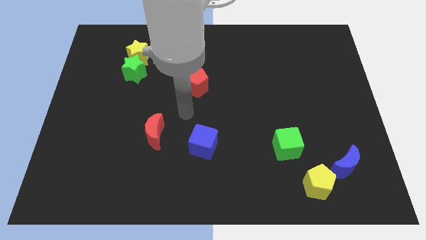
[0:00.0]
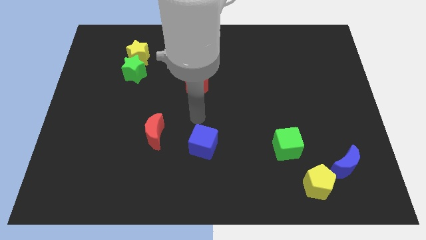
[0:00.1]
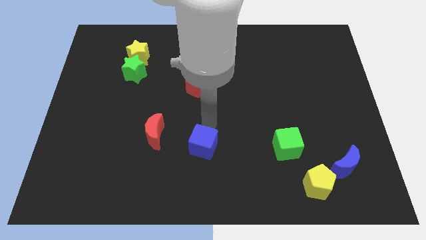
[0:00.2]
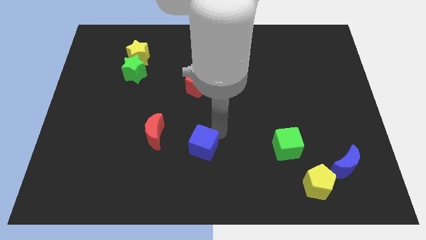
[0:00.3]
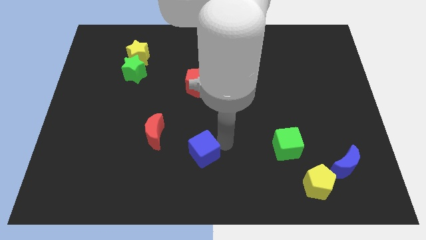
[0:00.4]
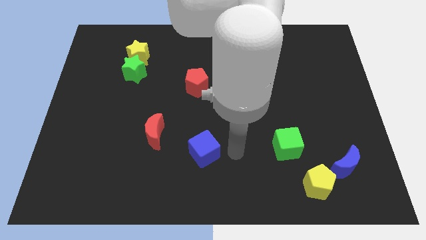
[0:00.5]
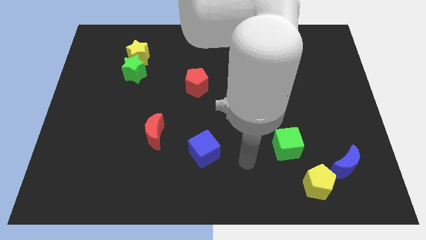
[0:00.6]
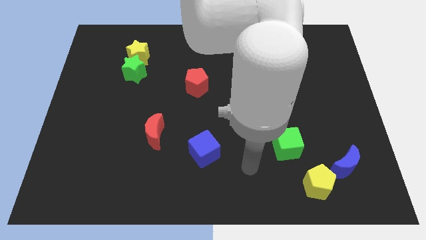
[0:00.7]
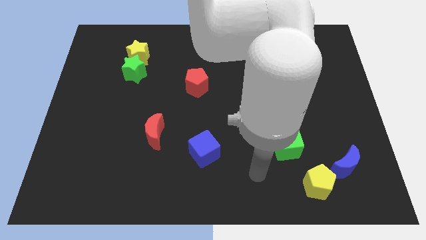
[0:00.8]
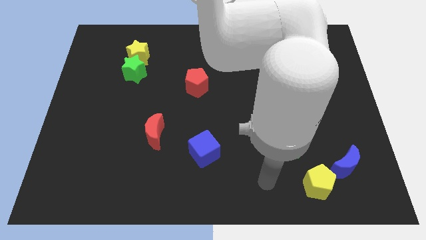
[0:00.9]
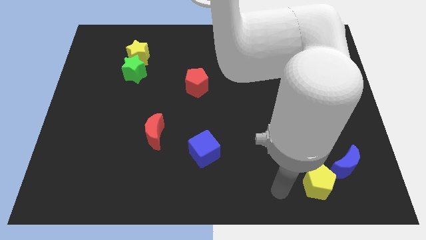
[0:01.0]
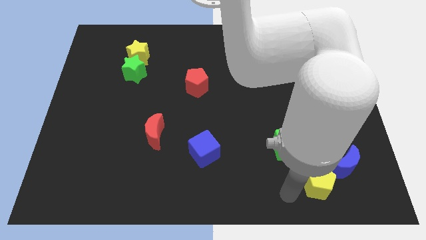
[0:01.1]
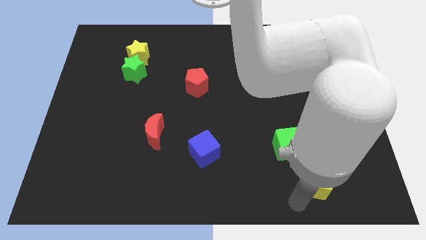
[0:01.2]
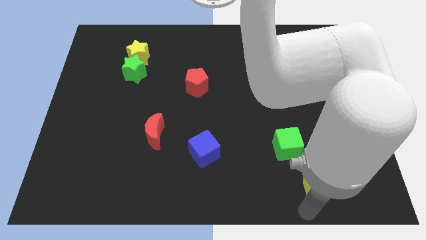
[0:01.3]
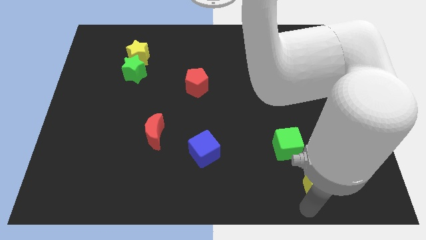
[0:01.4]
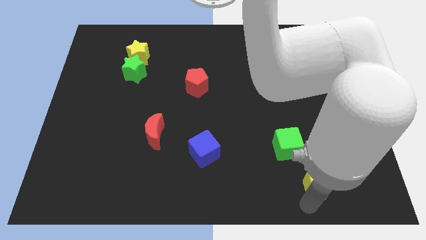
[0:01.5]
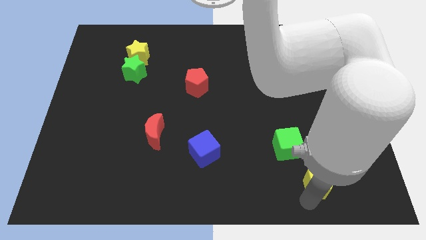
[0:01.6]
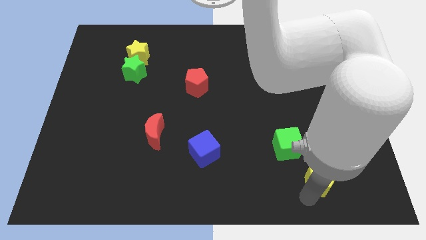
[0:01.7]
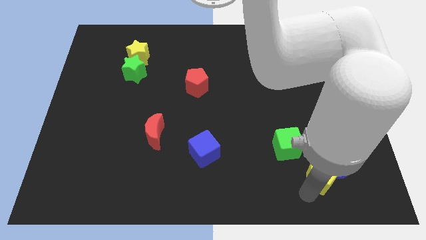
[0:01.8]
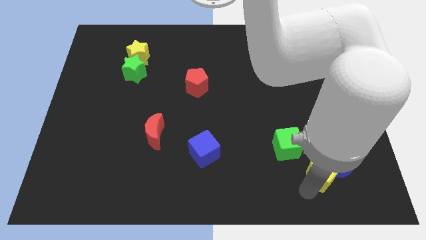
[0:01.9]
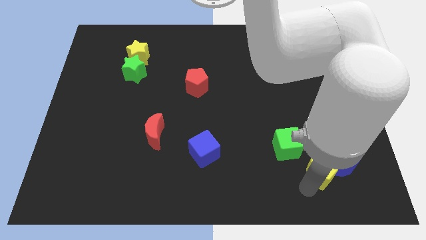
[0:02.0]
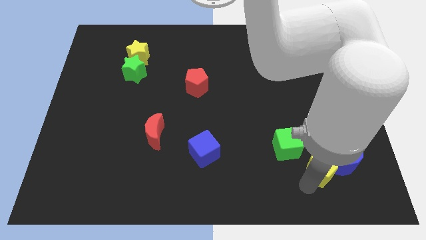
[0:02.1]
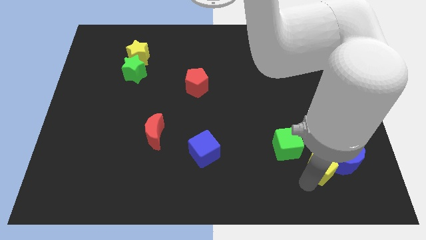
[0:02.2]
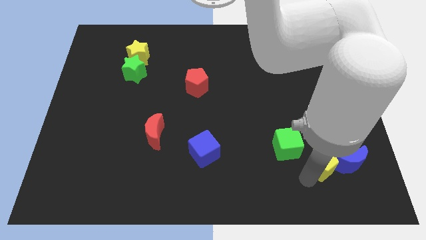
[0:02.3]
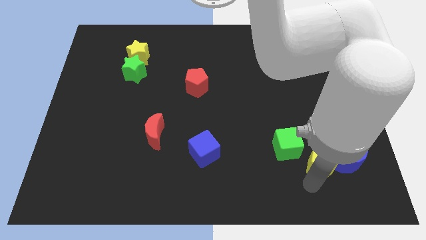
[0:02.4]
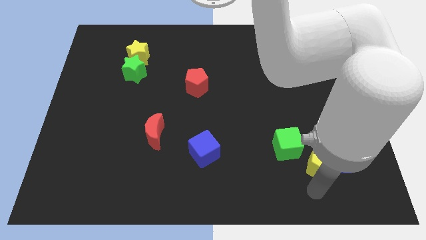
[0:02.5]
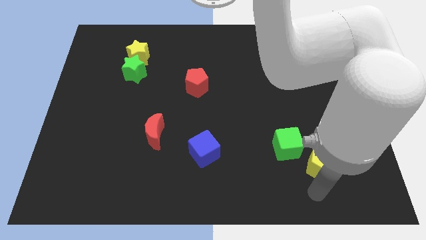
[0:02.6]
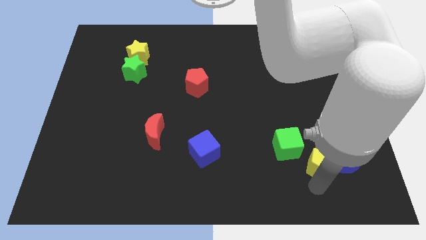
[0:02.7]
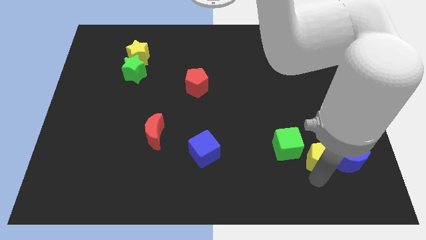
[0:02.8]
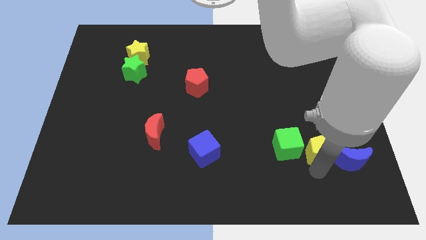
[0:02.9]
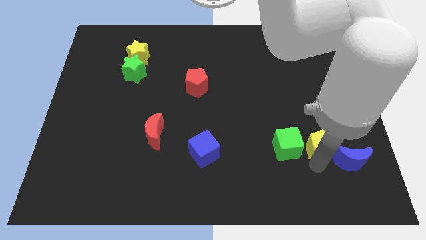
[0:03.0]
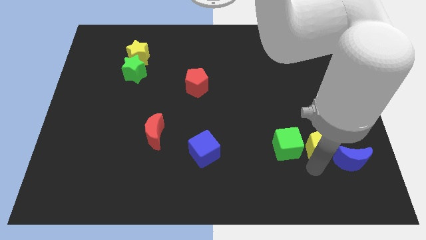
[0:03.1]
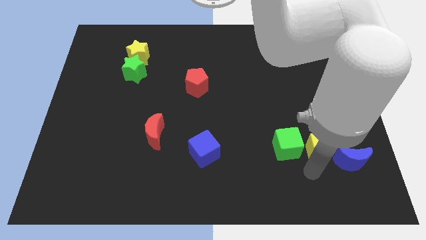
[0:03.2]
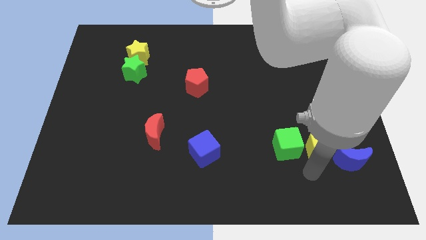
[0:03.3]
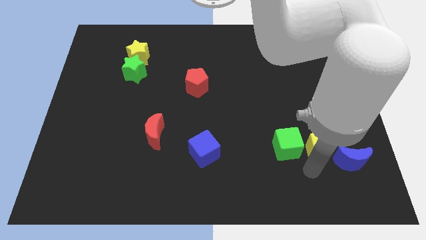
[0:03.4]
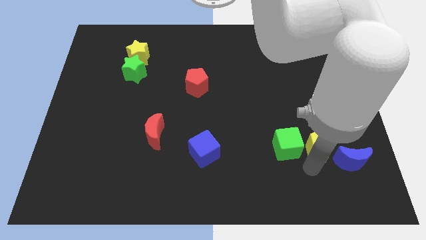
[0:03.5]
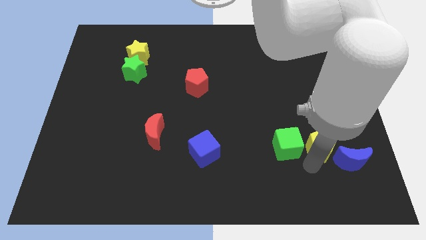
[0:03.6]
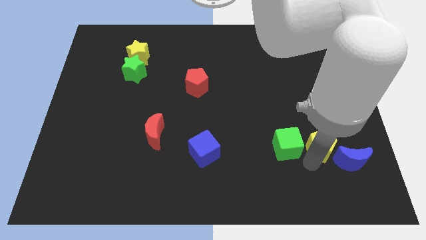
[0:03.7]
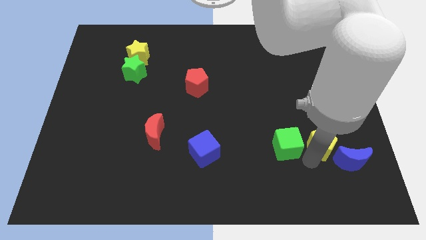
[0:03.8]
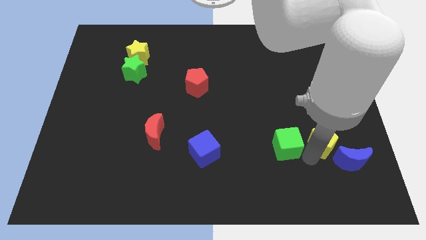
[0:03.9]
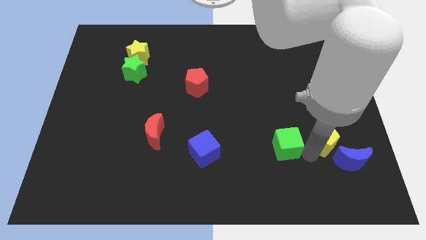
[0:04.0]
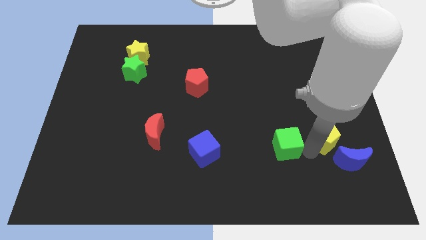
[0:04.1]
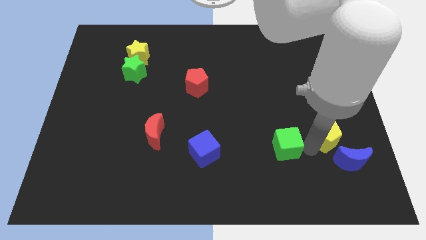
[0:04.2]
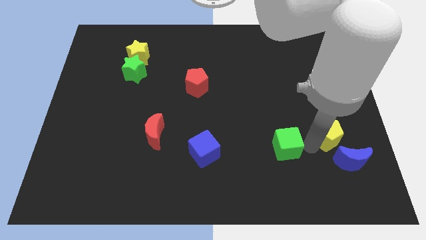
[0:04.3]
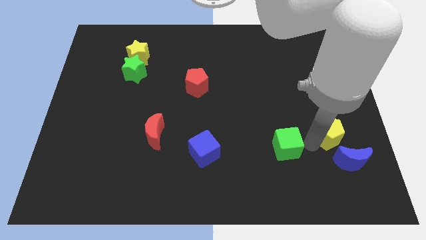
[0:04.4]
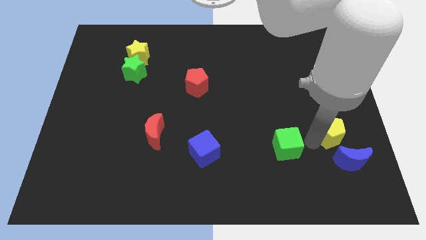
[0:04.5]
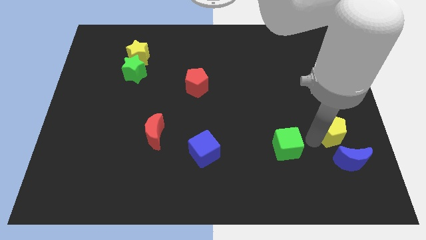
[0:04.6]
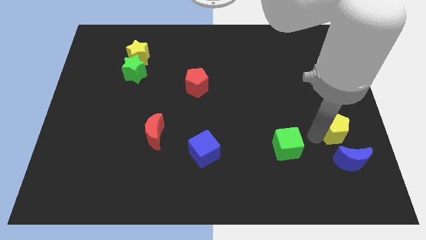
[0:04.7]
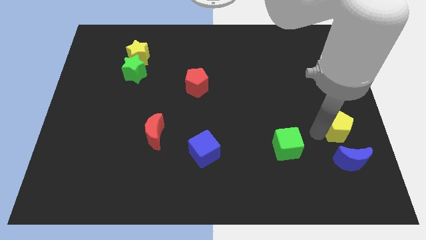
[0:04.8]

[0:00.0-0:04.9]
push the yellow pentagon to the right side of the board

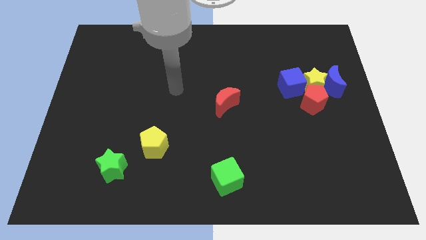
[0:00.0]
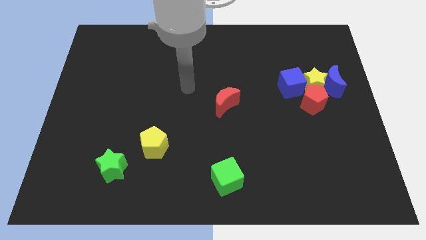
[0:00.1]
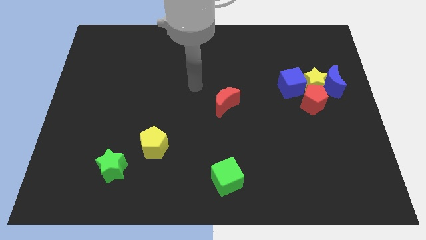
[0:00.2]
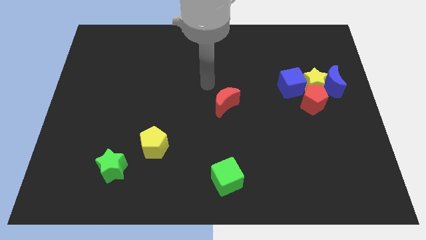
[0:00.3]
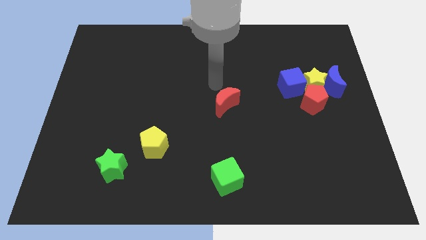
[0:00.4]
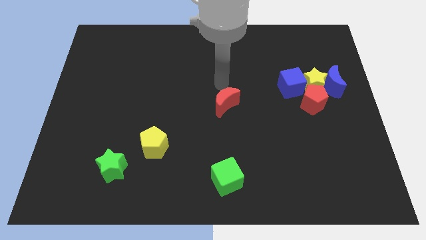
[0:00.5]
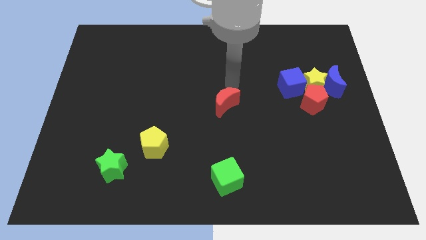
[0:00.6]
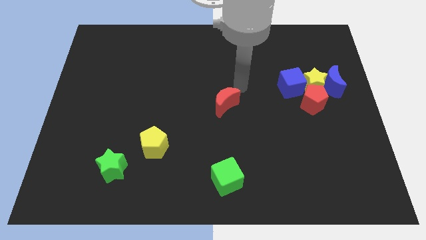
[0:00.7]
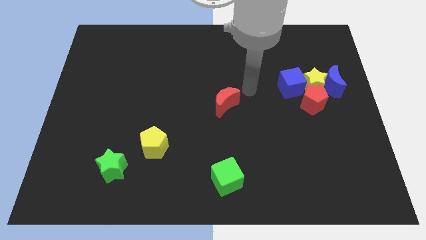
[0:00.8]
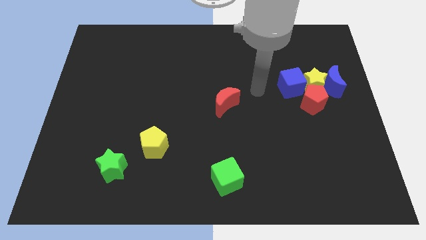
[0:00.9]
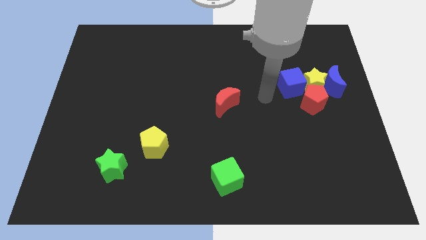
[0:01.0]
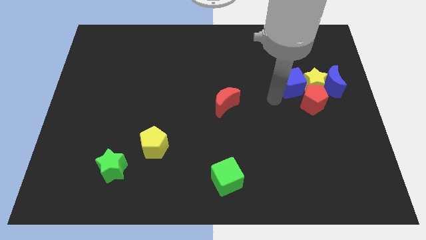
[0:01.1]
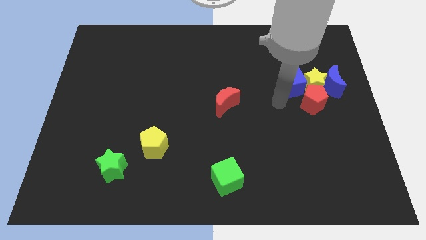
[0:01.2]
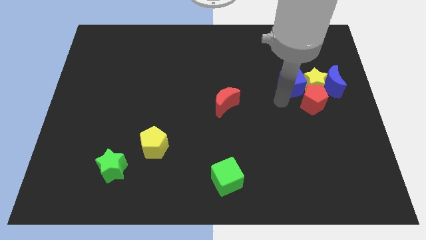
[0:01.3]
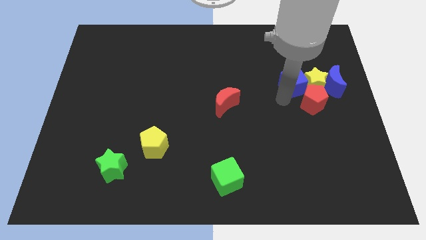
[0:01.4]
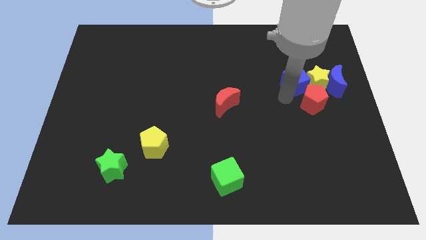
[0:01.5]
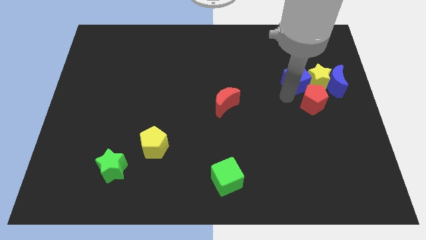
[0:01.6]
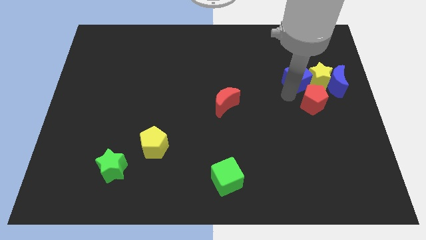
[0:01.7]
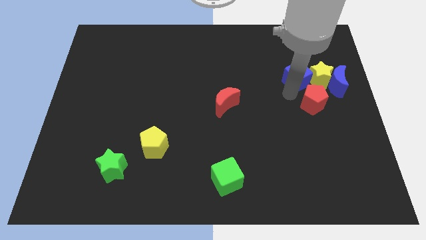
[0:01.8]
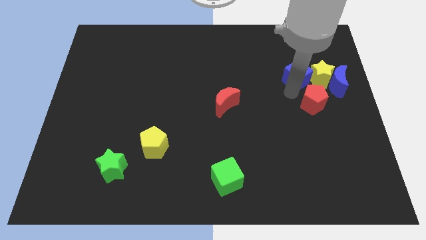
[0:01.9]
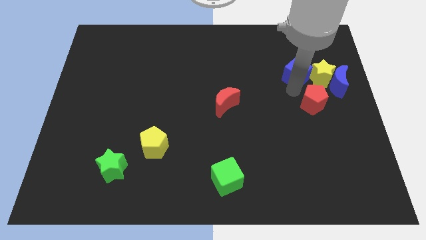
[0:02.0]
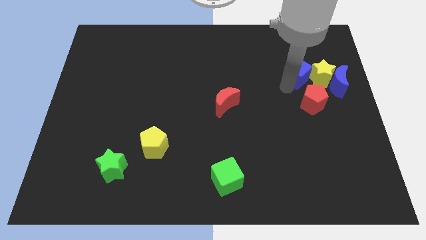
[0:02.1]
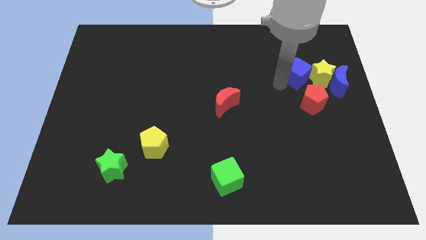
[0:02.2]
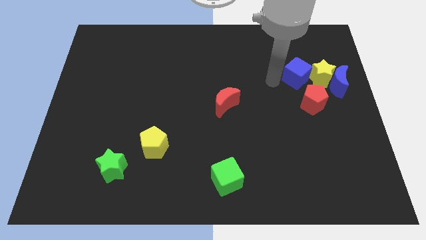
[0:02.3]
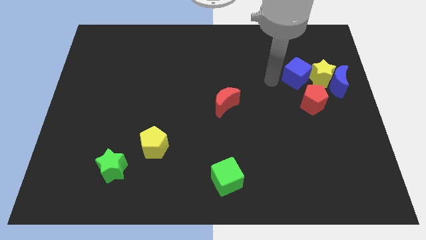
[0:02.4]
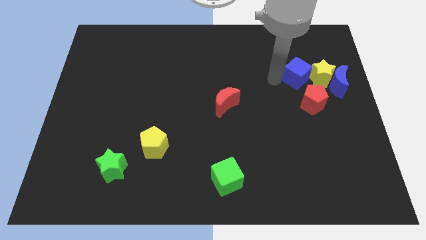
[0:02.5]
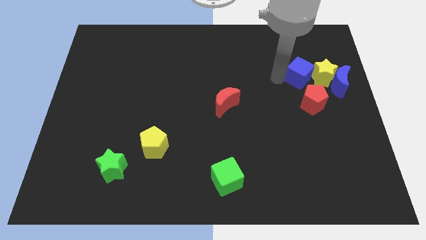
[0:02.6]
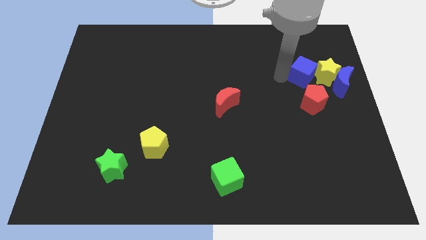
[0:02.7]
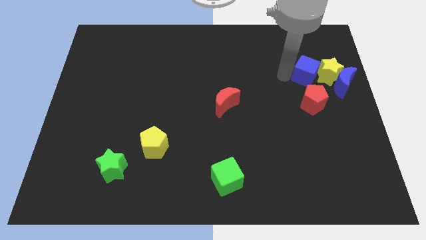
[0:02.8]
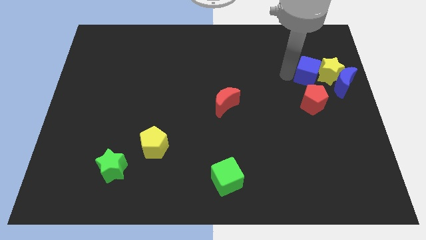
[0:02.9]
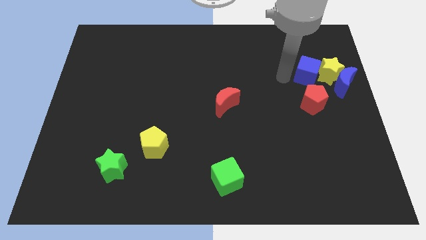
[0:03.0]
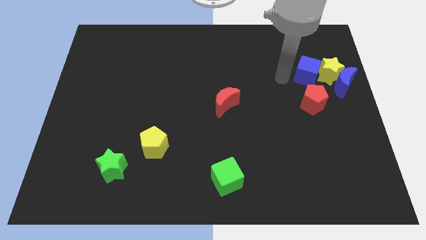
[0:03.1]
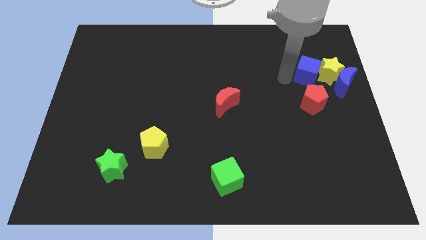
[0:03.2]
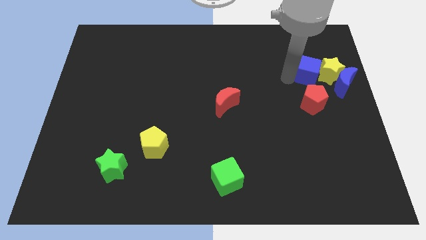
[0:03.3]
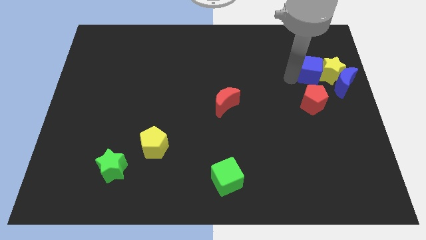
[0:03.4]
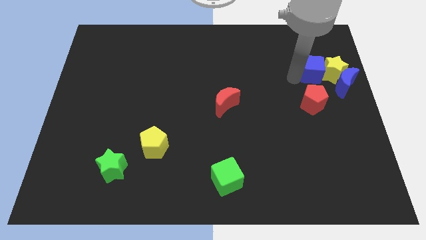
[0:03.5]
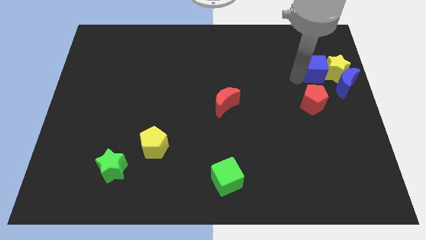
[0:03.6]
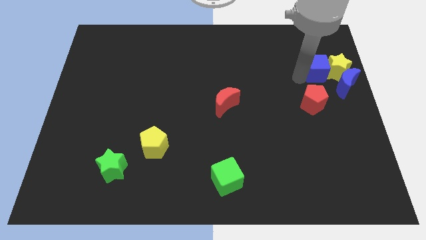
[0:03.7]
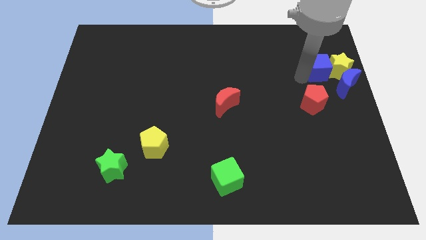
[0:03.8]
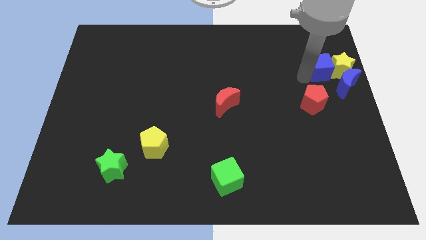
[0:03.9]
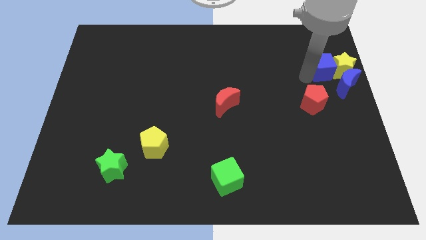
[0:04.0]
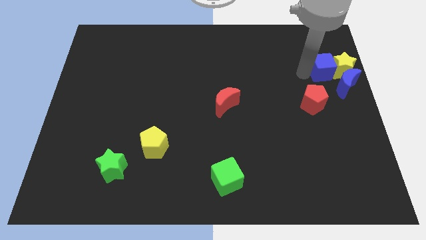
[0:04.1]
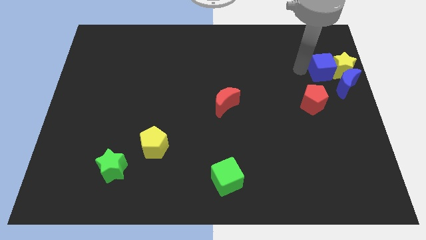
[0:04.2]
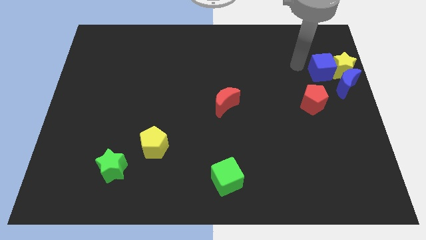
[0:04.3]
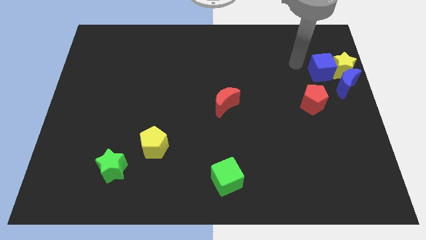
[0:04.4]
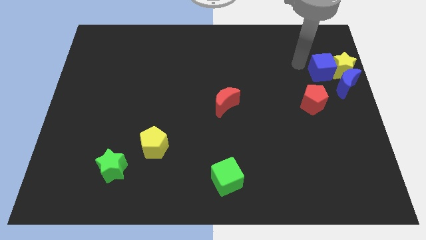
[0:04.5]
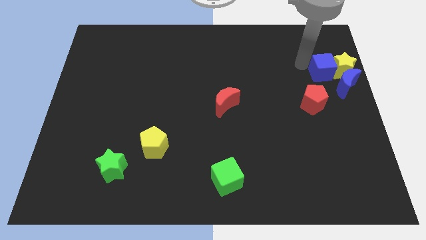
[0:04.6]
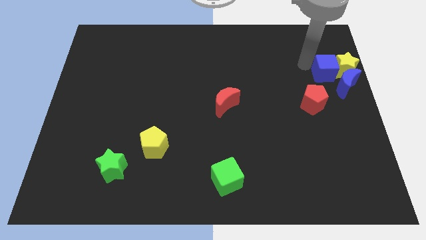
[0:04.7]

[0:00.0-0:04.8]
move the blue cube to the right side
